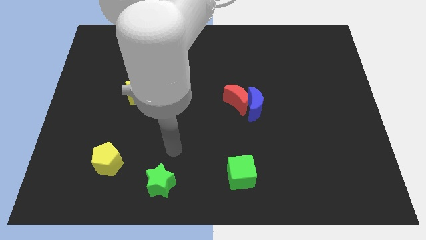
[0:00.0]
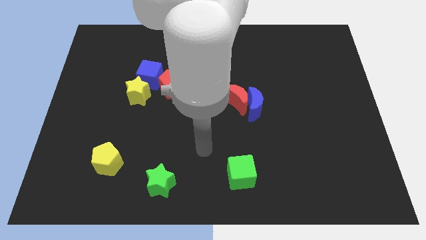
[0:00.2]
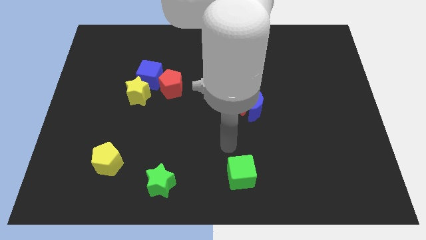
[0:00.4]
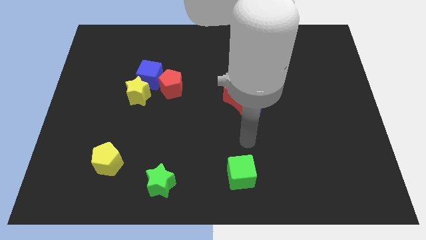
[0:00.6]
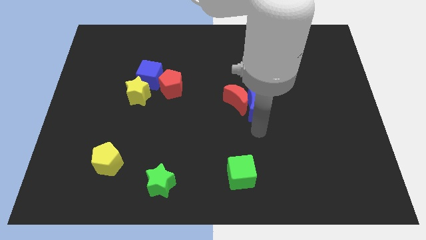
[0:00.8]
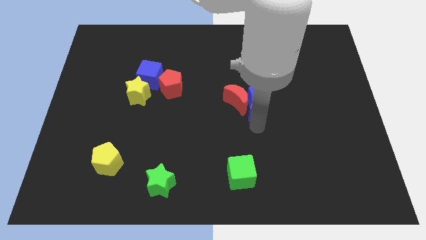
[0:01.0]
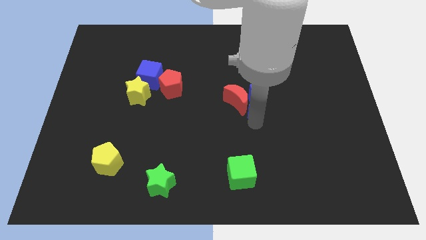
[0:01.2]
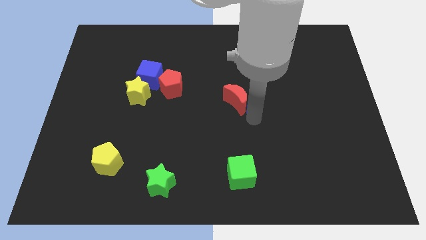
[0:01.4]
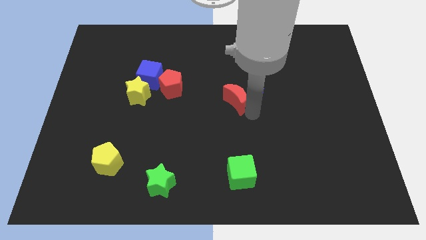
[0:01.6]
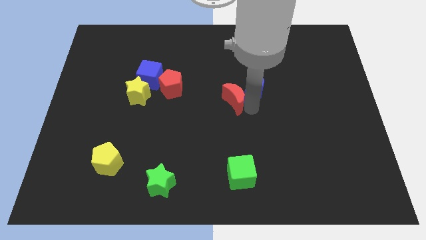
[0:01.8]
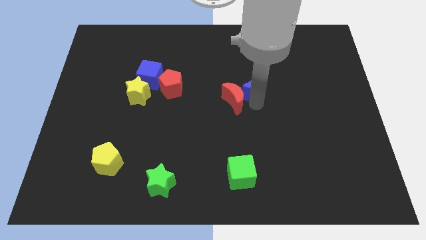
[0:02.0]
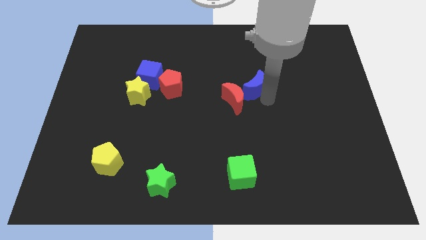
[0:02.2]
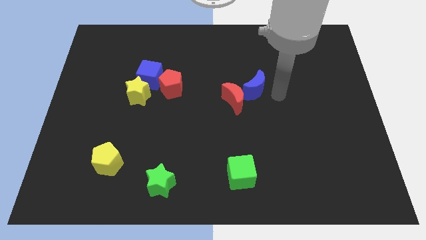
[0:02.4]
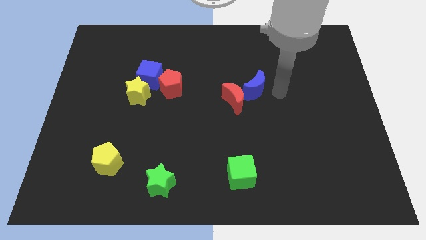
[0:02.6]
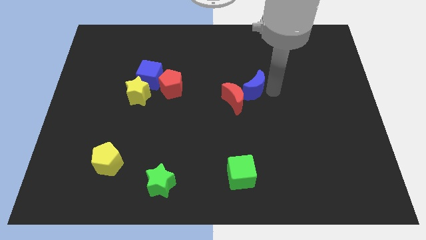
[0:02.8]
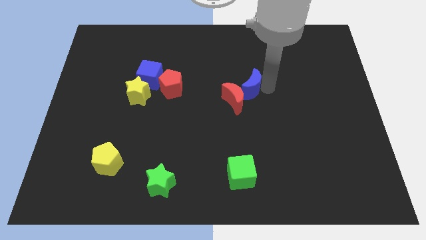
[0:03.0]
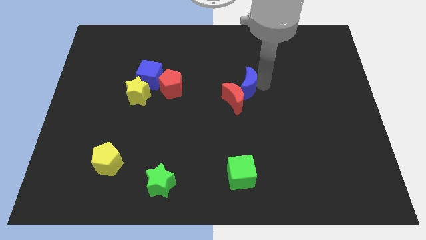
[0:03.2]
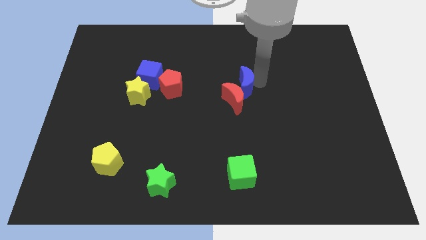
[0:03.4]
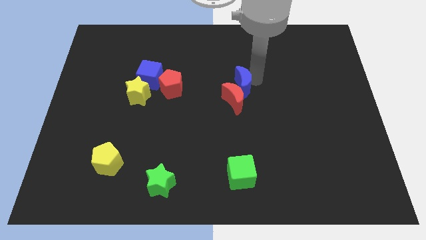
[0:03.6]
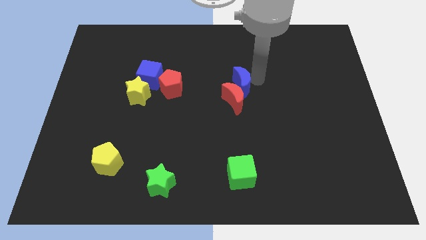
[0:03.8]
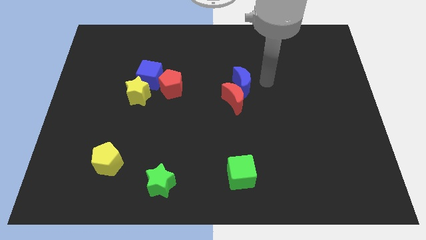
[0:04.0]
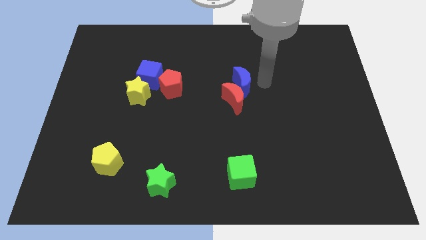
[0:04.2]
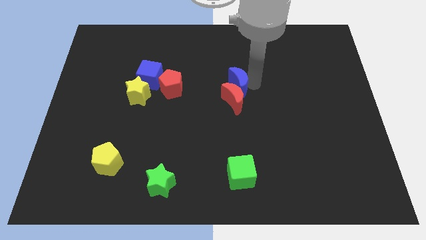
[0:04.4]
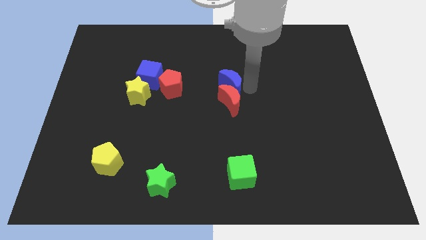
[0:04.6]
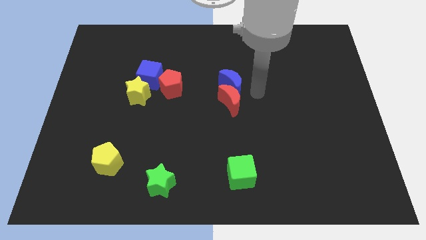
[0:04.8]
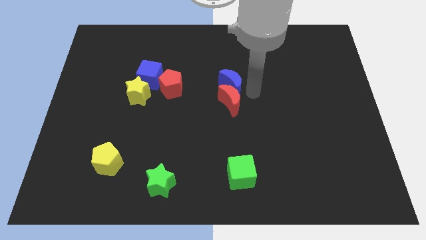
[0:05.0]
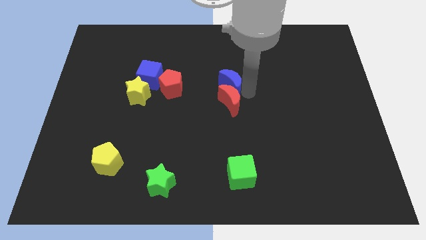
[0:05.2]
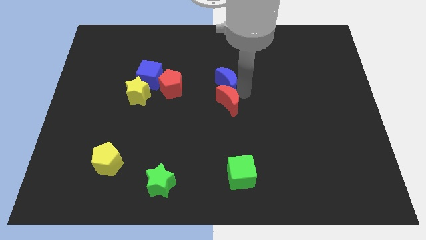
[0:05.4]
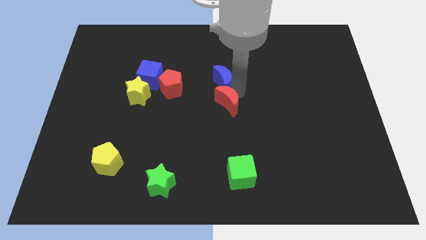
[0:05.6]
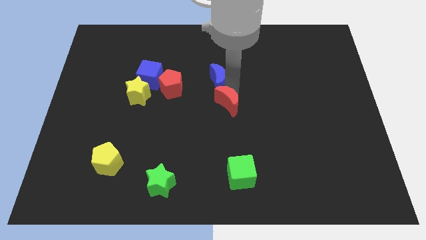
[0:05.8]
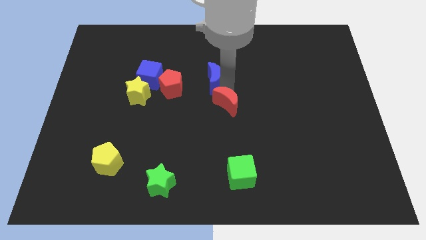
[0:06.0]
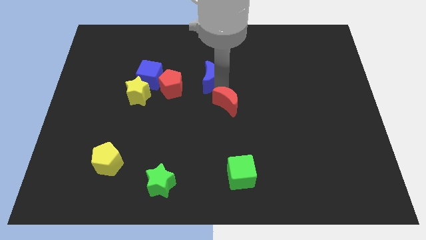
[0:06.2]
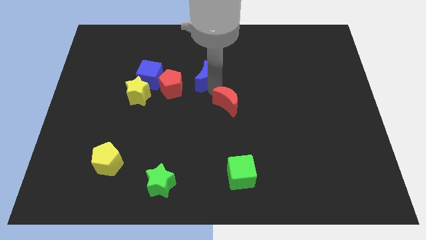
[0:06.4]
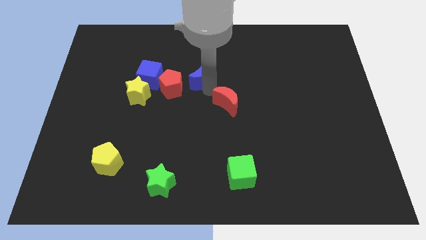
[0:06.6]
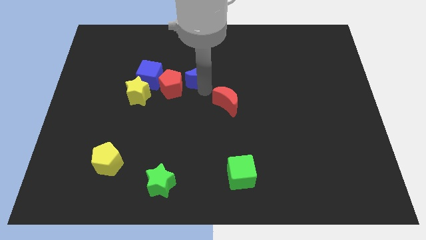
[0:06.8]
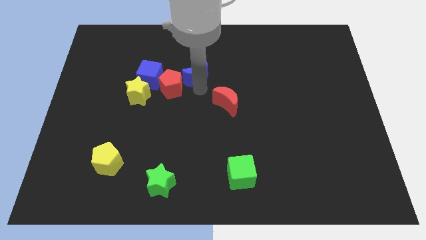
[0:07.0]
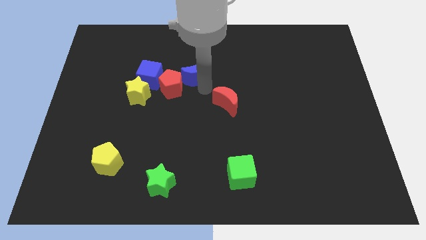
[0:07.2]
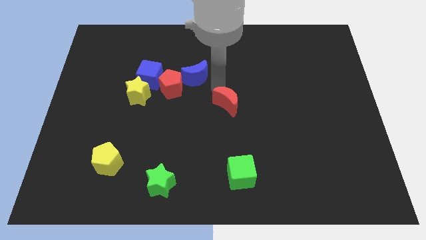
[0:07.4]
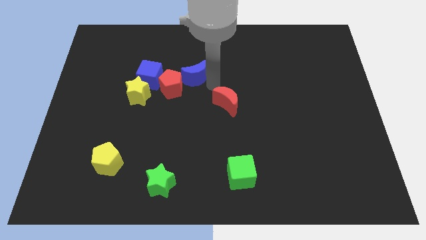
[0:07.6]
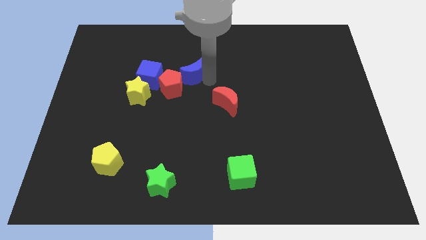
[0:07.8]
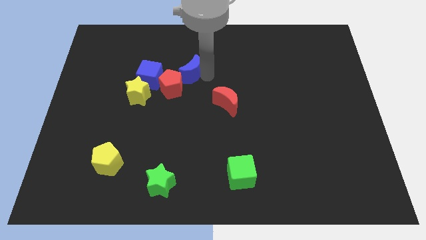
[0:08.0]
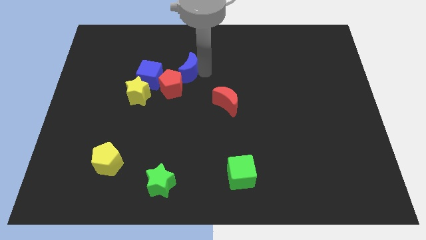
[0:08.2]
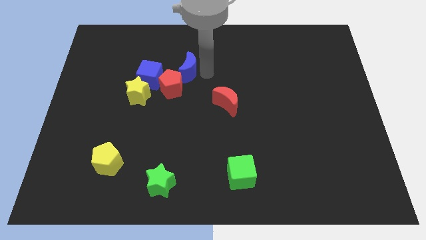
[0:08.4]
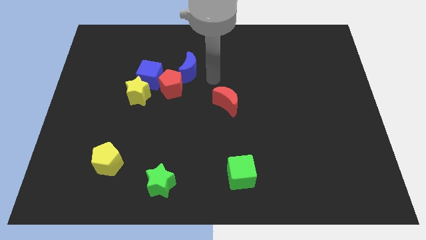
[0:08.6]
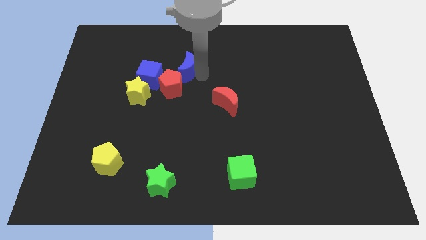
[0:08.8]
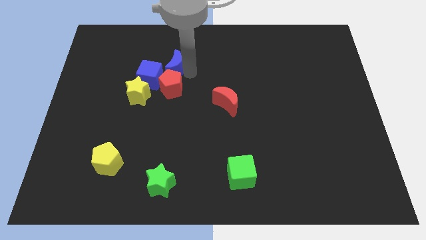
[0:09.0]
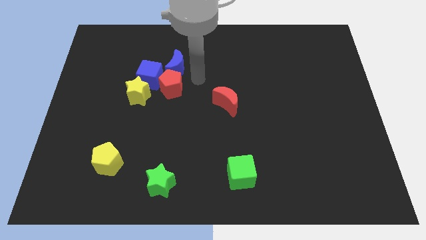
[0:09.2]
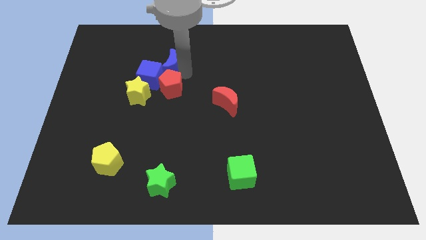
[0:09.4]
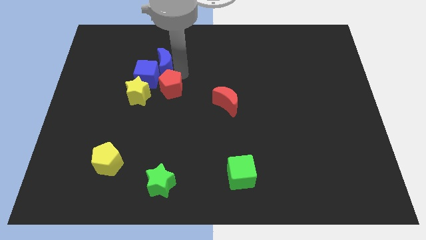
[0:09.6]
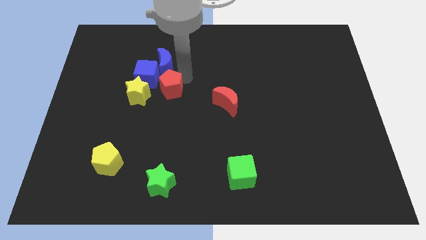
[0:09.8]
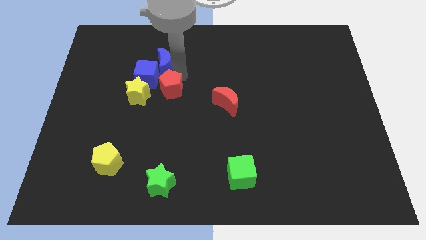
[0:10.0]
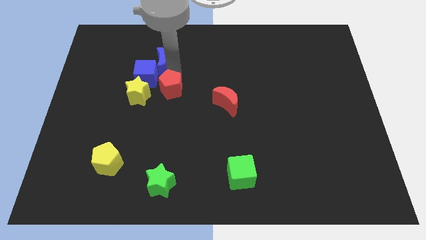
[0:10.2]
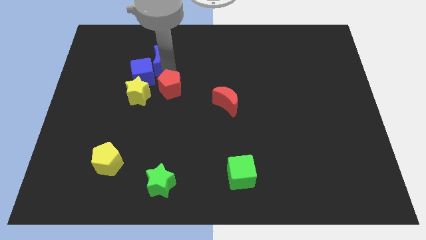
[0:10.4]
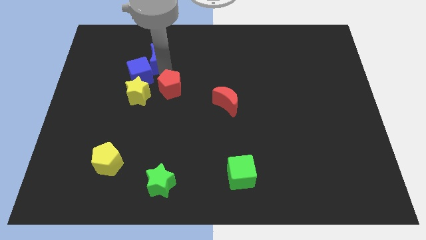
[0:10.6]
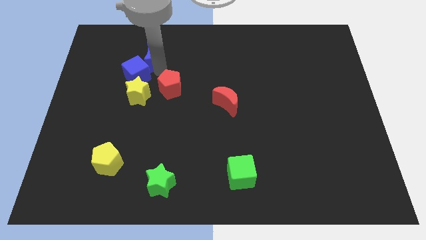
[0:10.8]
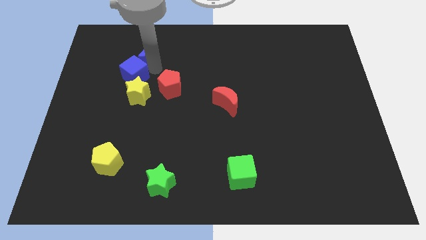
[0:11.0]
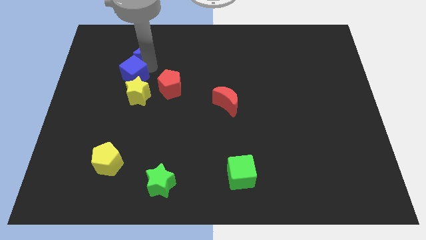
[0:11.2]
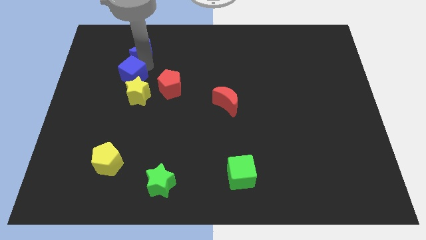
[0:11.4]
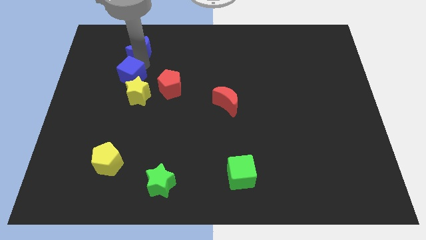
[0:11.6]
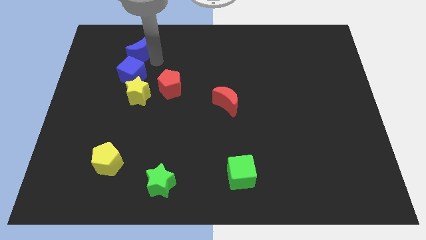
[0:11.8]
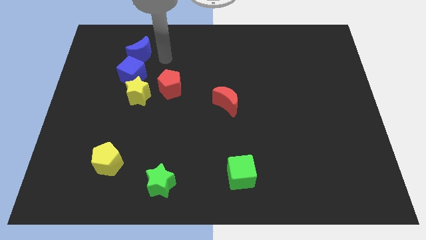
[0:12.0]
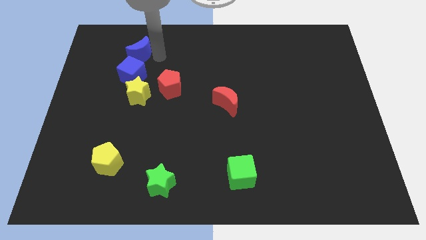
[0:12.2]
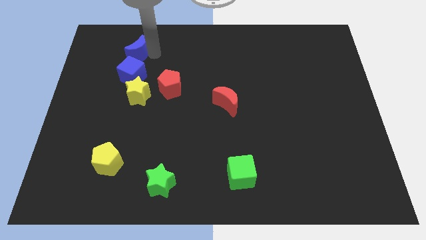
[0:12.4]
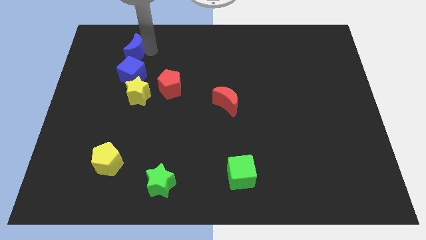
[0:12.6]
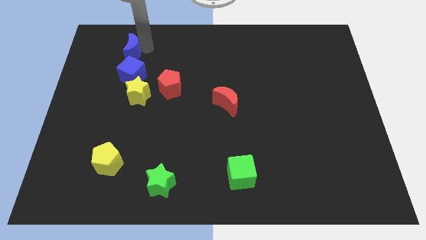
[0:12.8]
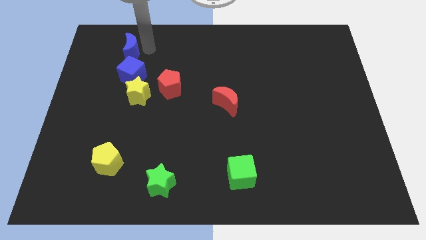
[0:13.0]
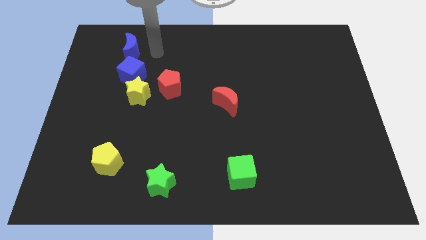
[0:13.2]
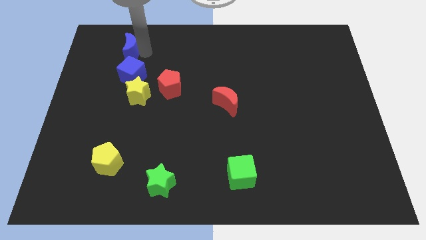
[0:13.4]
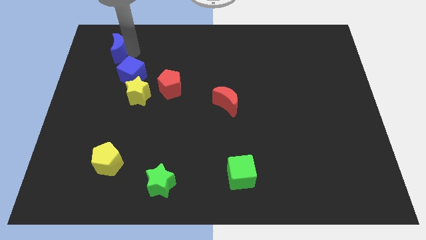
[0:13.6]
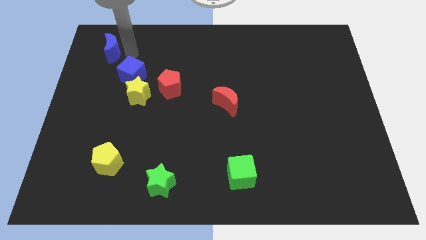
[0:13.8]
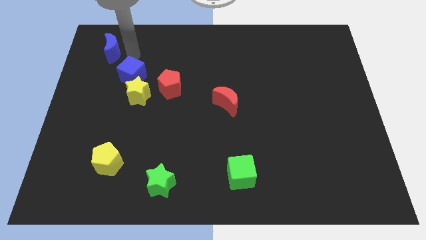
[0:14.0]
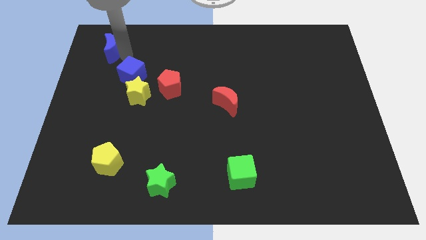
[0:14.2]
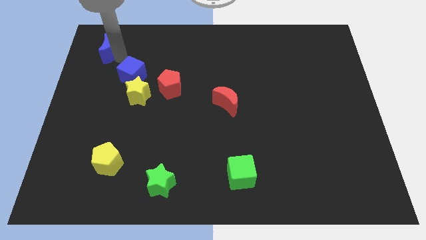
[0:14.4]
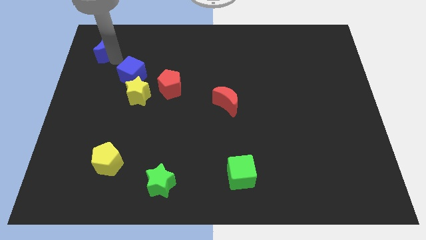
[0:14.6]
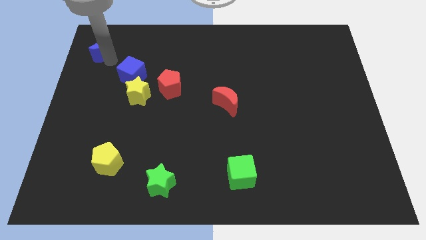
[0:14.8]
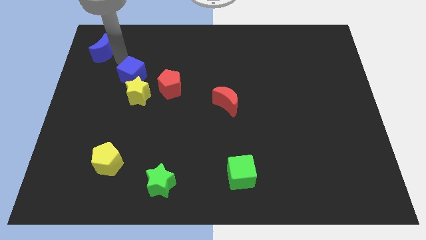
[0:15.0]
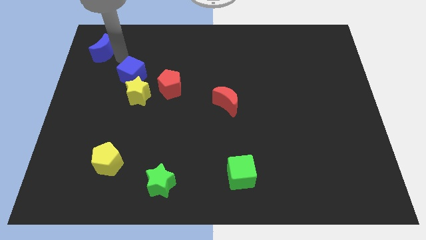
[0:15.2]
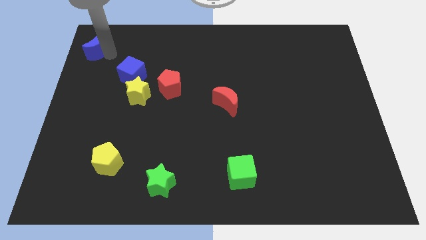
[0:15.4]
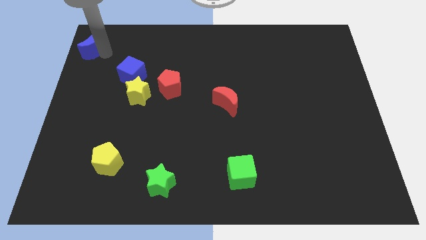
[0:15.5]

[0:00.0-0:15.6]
slide the blue moon to the upper left corner
